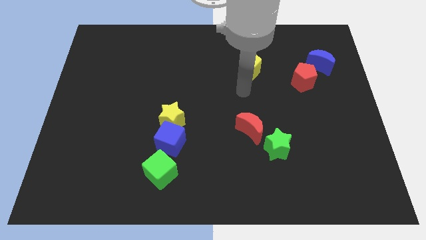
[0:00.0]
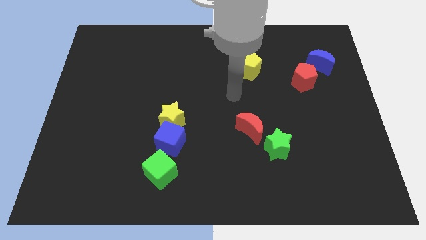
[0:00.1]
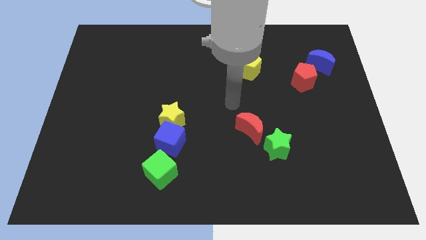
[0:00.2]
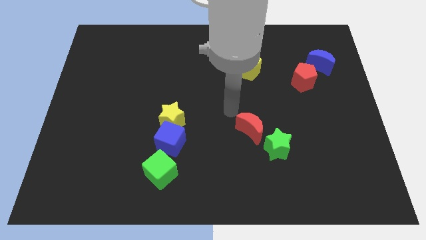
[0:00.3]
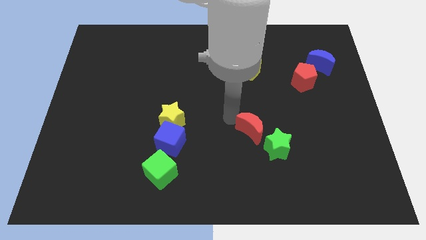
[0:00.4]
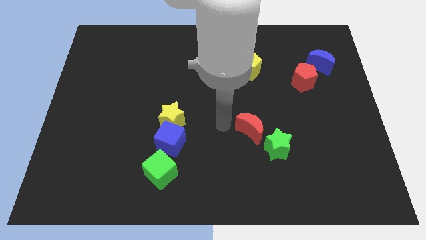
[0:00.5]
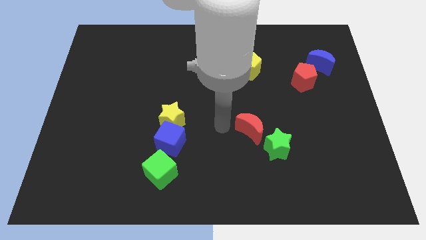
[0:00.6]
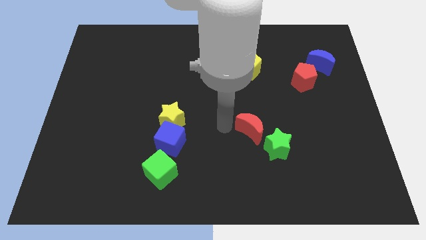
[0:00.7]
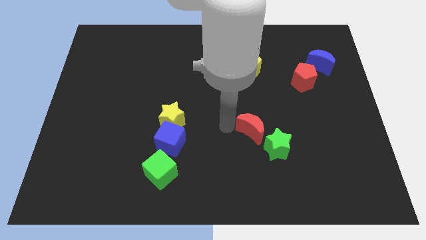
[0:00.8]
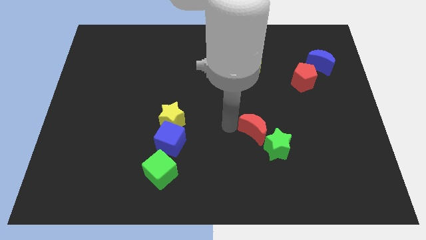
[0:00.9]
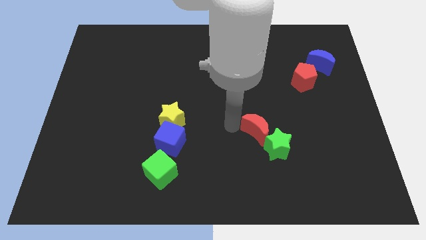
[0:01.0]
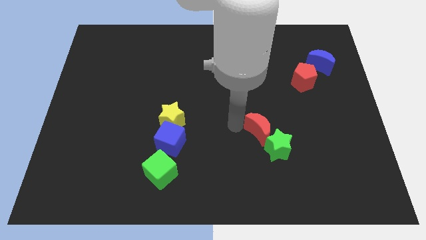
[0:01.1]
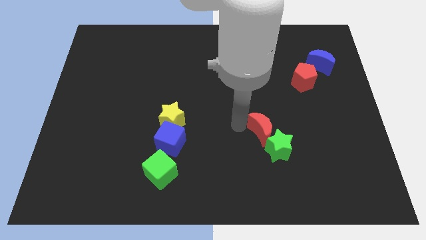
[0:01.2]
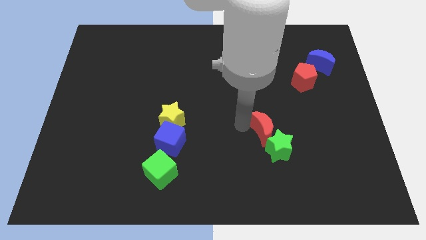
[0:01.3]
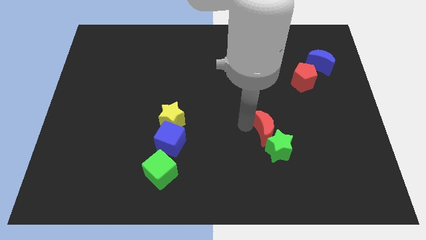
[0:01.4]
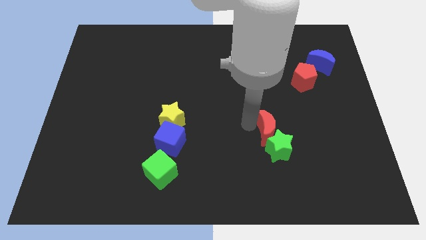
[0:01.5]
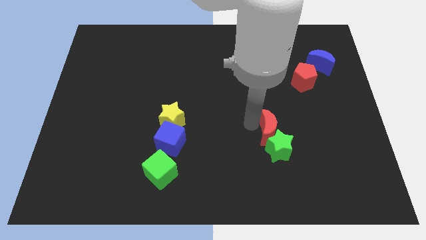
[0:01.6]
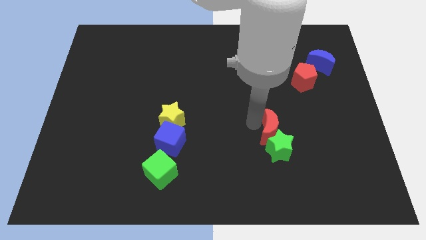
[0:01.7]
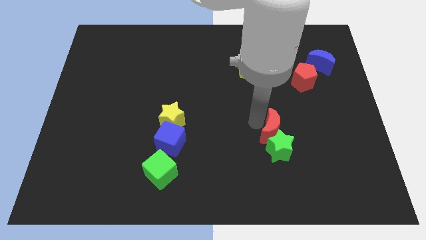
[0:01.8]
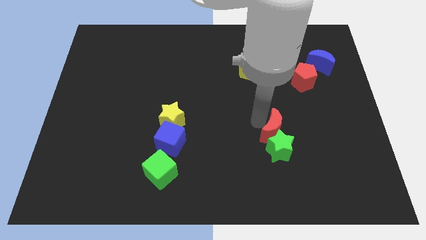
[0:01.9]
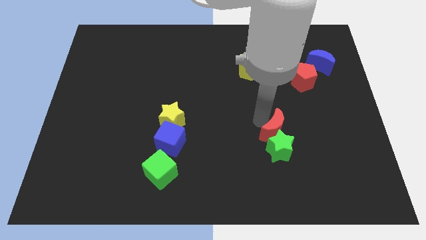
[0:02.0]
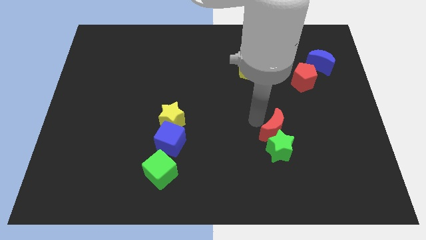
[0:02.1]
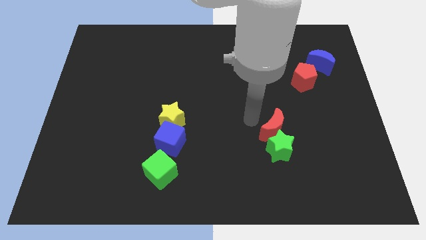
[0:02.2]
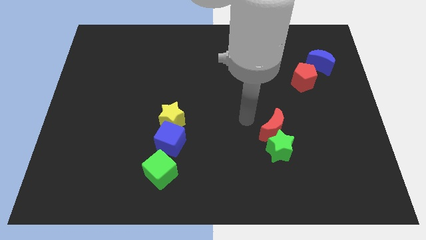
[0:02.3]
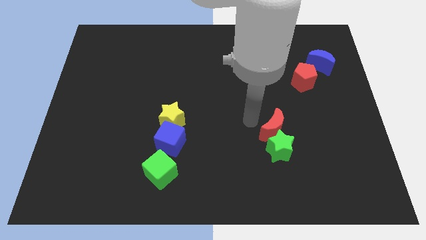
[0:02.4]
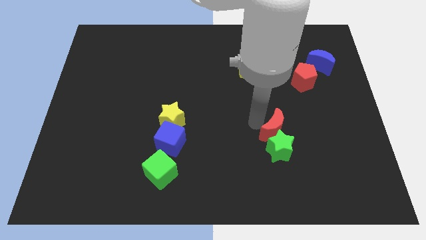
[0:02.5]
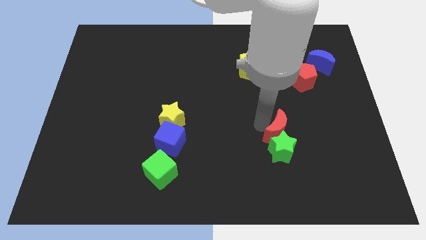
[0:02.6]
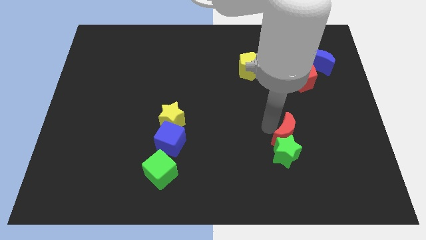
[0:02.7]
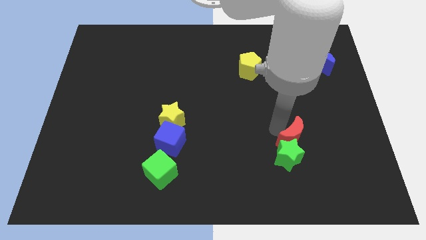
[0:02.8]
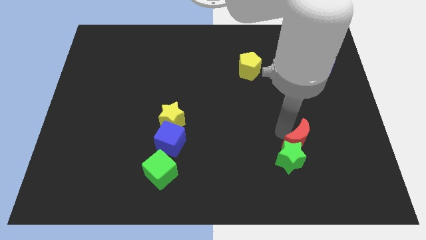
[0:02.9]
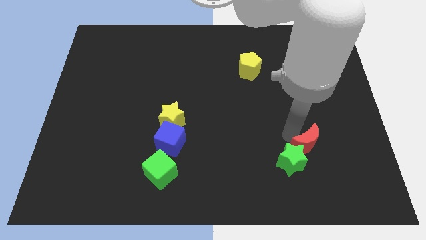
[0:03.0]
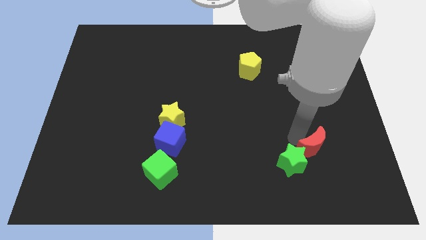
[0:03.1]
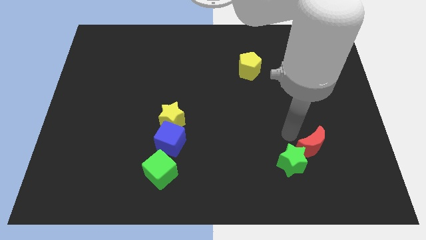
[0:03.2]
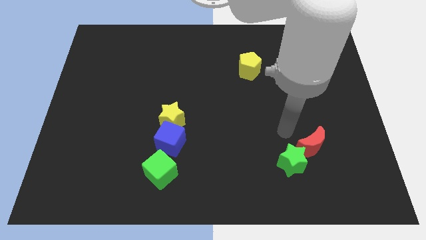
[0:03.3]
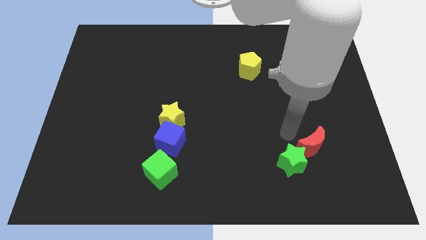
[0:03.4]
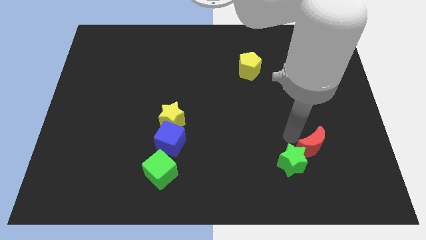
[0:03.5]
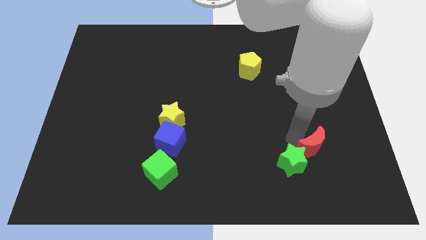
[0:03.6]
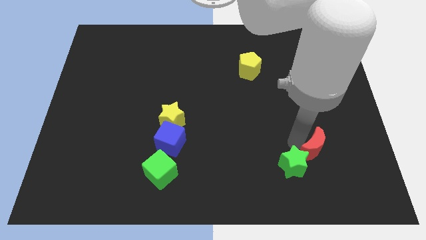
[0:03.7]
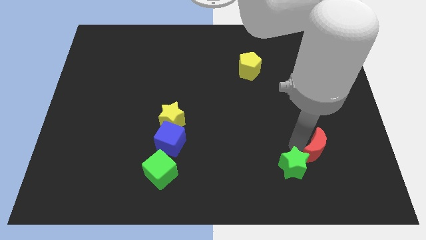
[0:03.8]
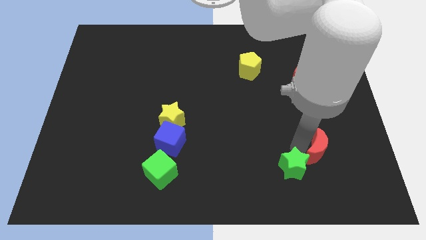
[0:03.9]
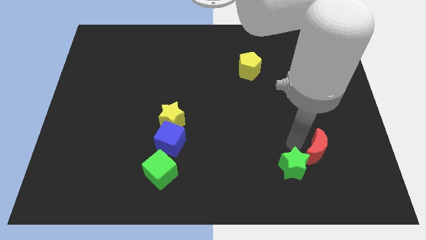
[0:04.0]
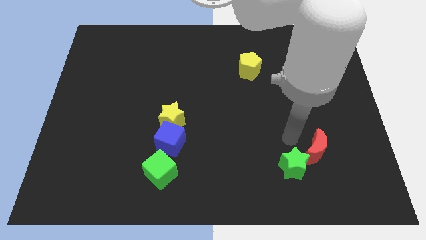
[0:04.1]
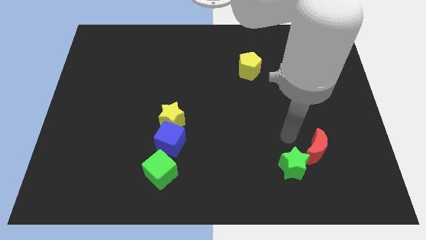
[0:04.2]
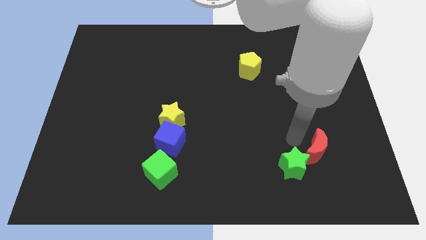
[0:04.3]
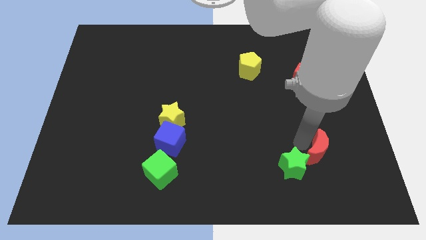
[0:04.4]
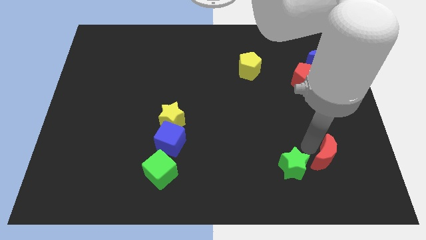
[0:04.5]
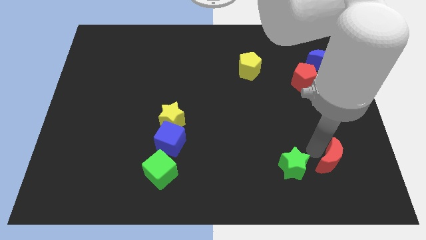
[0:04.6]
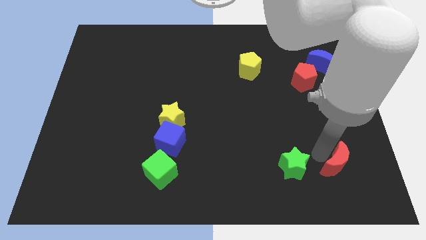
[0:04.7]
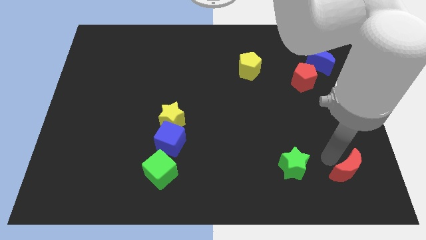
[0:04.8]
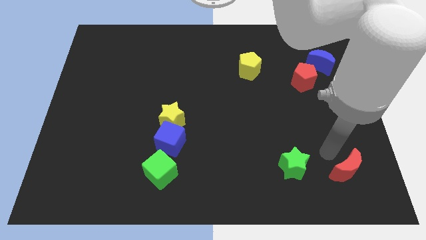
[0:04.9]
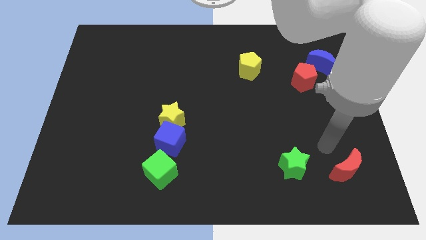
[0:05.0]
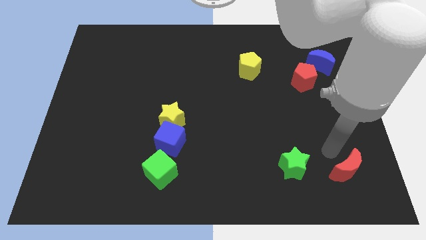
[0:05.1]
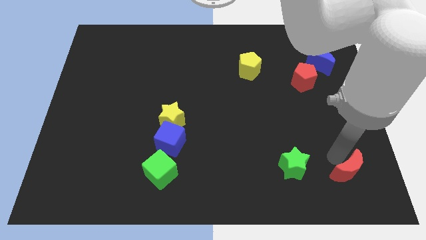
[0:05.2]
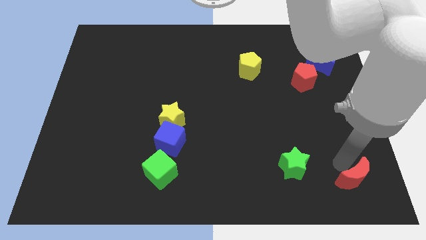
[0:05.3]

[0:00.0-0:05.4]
slide the red moon to the lower right corner

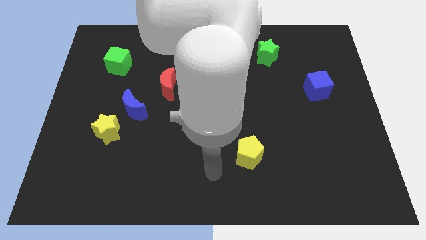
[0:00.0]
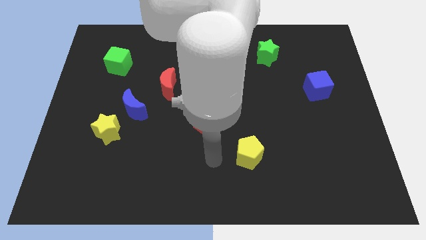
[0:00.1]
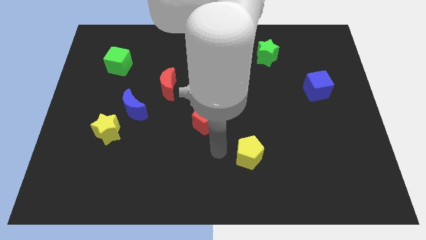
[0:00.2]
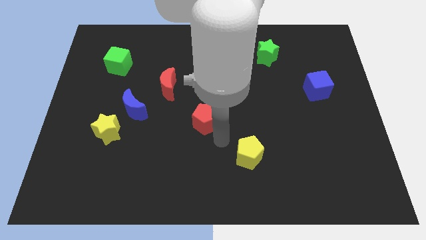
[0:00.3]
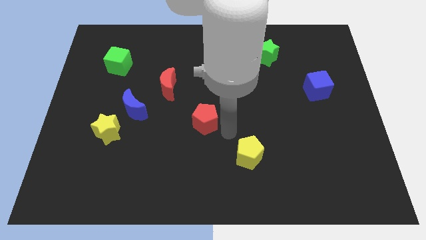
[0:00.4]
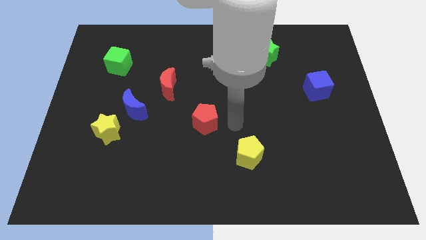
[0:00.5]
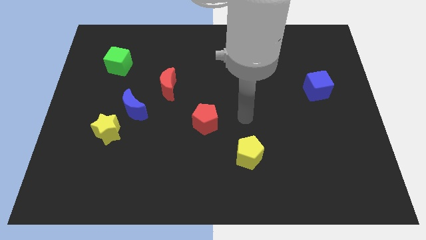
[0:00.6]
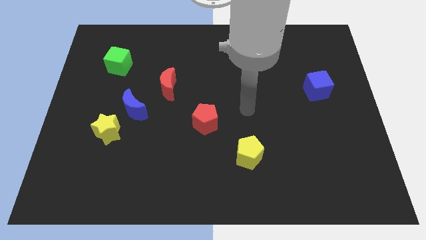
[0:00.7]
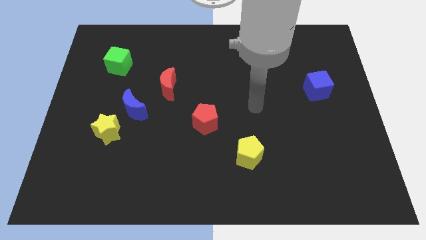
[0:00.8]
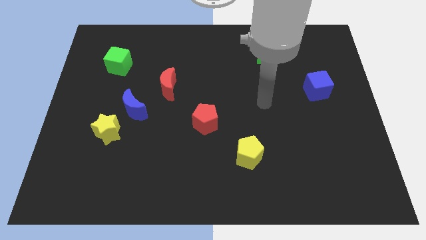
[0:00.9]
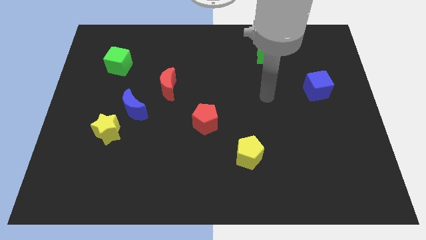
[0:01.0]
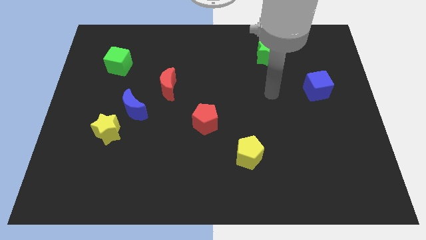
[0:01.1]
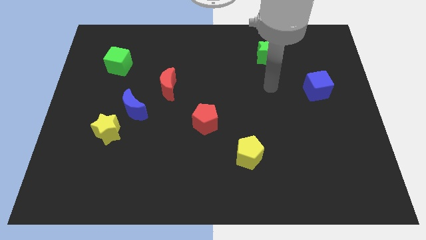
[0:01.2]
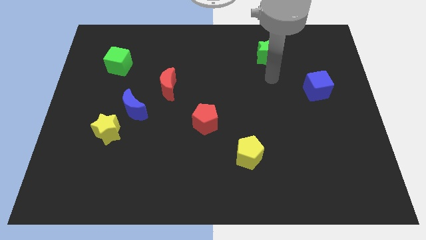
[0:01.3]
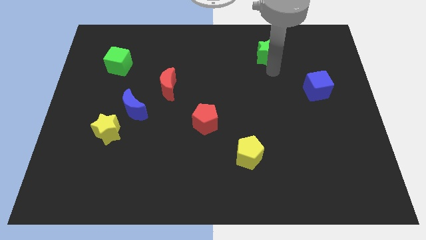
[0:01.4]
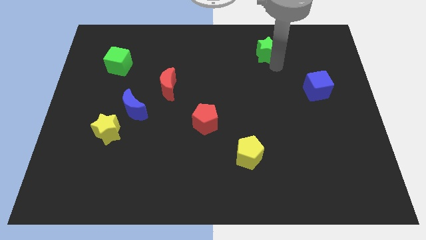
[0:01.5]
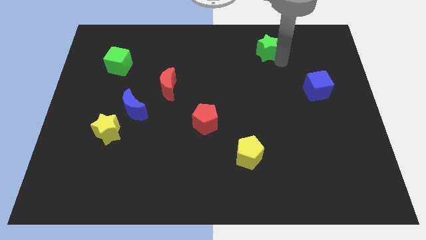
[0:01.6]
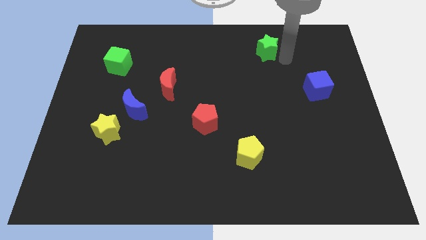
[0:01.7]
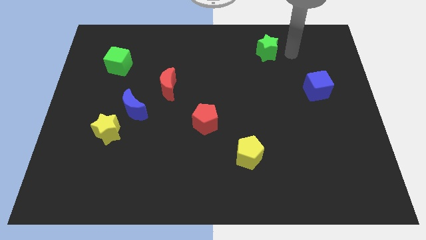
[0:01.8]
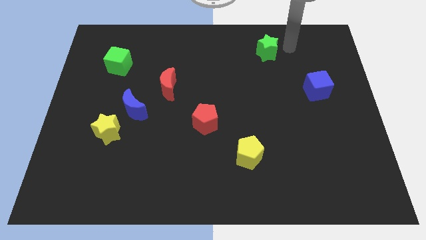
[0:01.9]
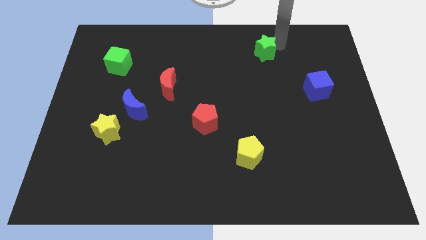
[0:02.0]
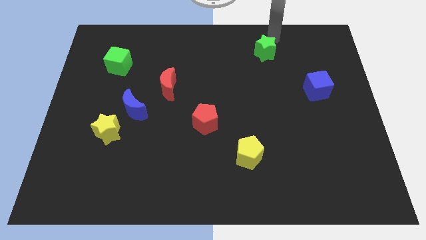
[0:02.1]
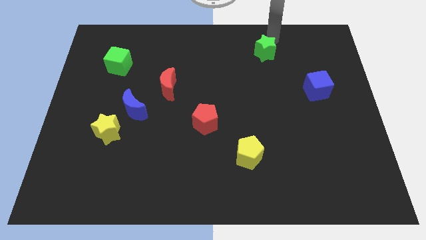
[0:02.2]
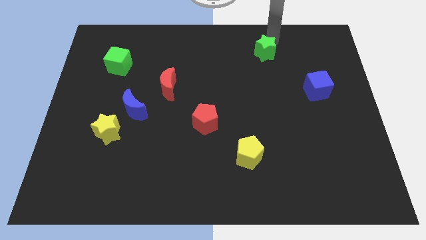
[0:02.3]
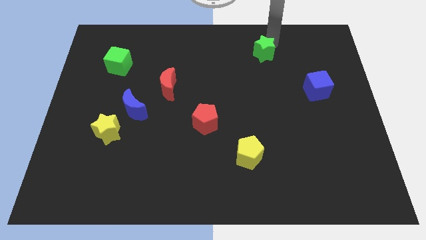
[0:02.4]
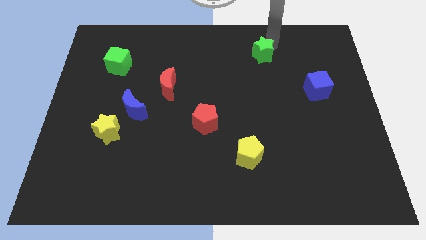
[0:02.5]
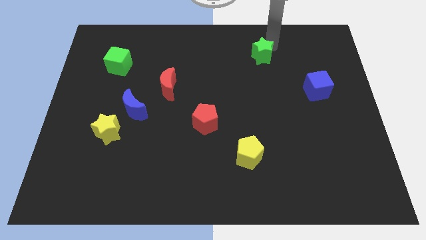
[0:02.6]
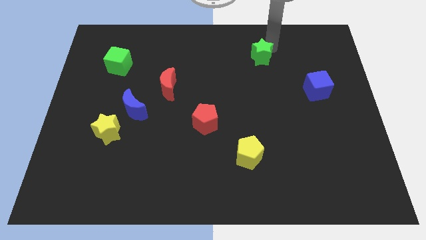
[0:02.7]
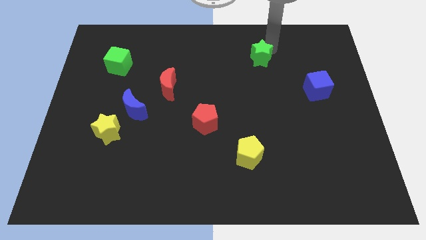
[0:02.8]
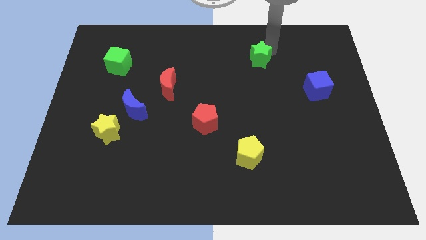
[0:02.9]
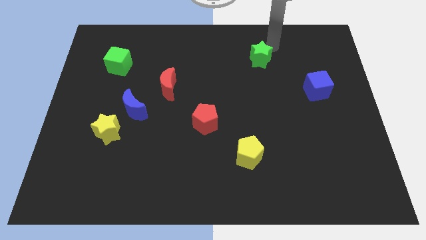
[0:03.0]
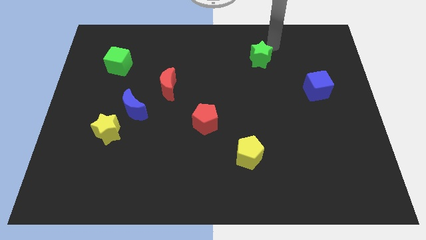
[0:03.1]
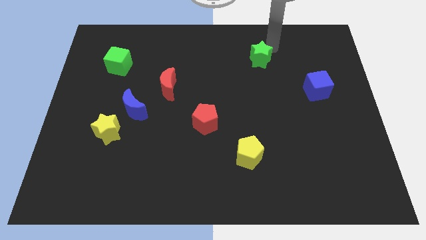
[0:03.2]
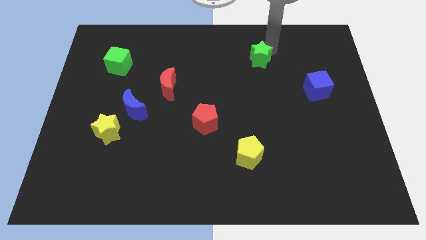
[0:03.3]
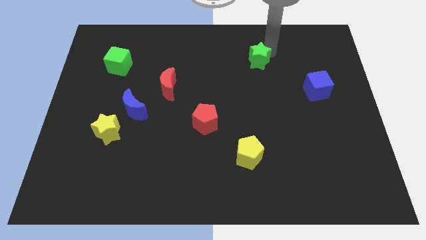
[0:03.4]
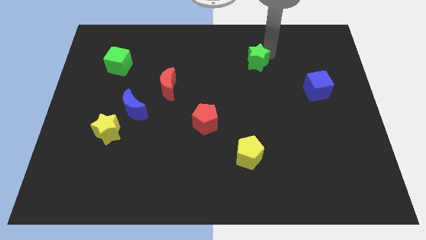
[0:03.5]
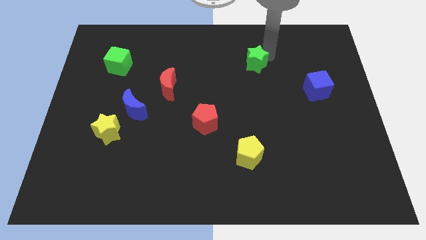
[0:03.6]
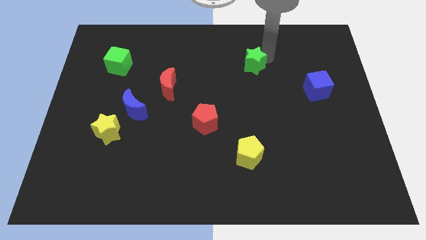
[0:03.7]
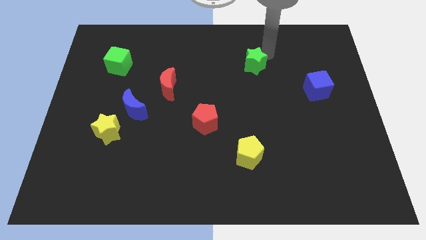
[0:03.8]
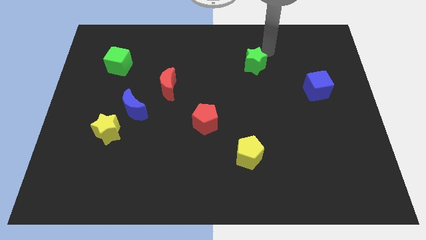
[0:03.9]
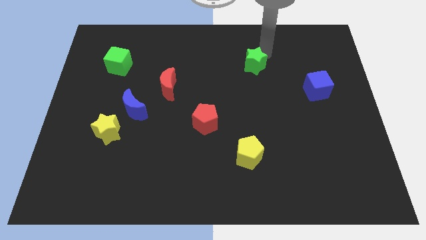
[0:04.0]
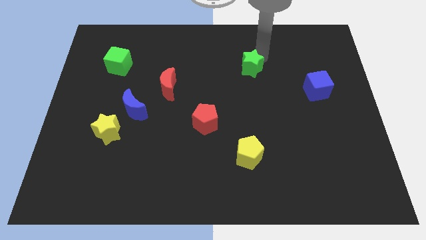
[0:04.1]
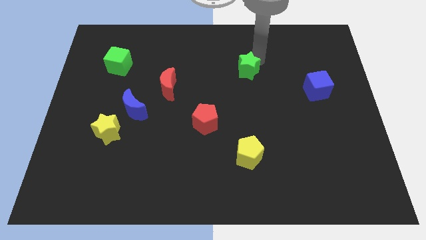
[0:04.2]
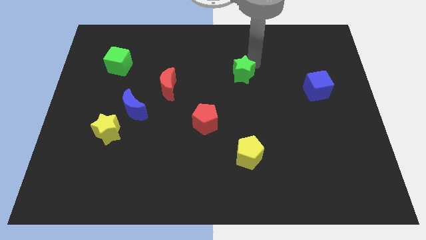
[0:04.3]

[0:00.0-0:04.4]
move the green star to the center
